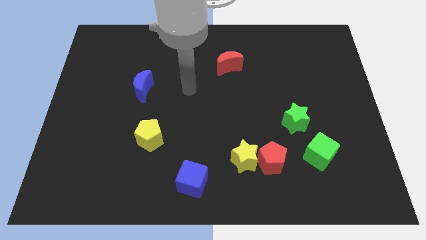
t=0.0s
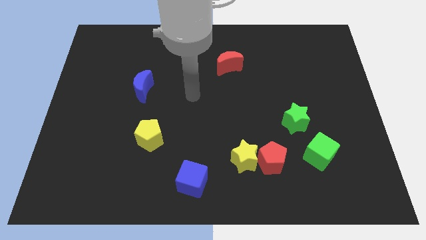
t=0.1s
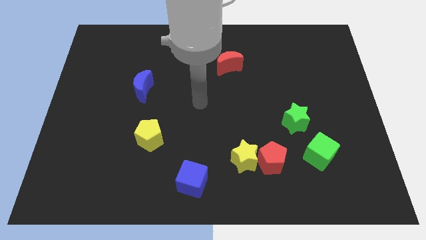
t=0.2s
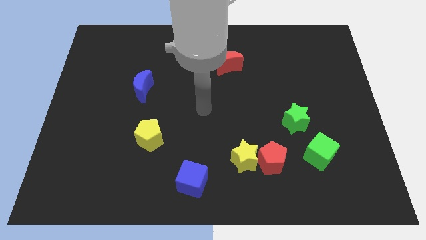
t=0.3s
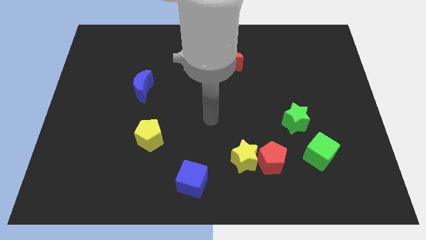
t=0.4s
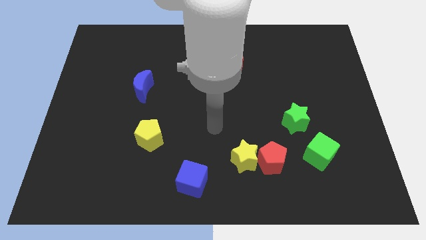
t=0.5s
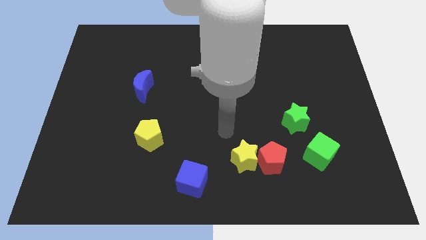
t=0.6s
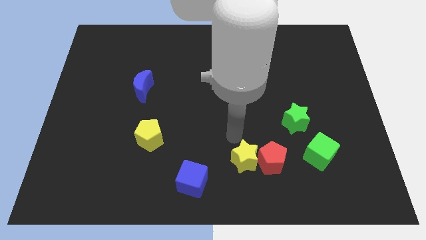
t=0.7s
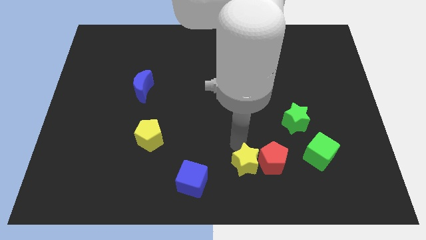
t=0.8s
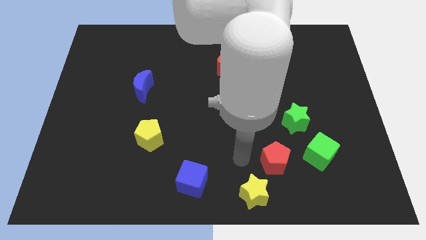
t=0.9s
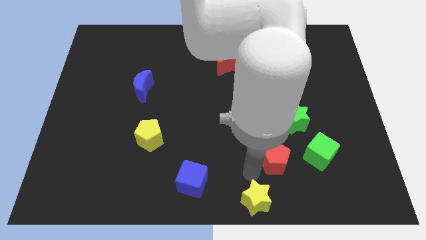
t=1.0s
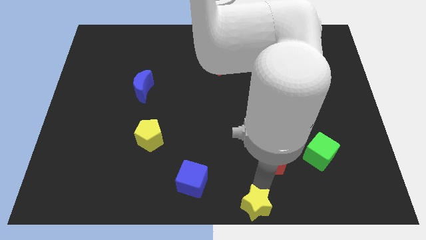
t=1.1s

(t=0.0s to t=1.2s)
separate the red pentagon from the yellow star

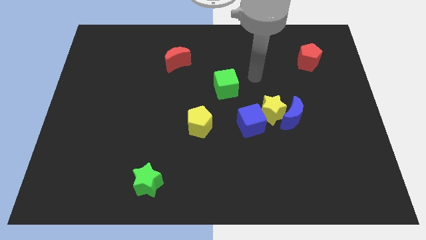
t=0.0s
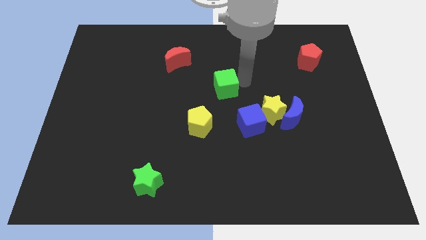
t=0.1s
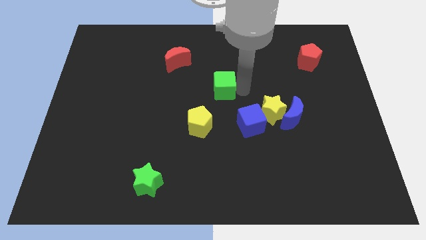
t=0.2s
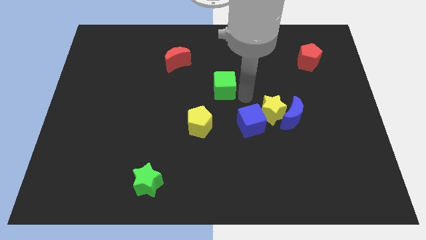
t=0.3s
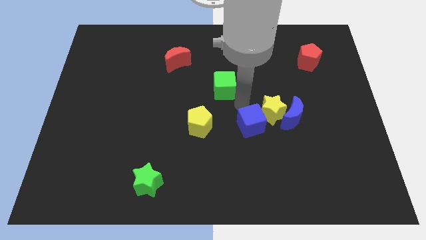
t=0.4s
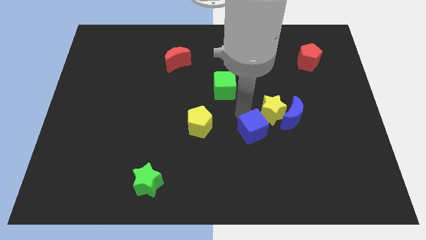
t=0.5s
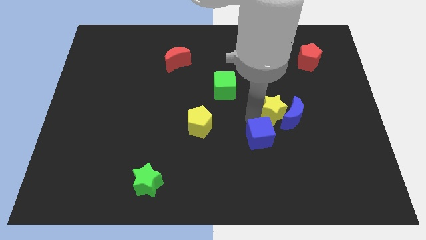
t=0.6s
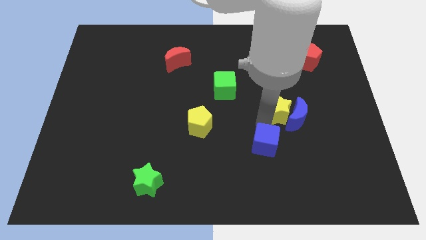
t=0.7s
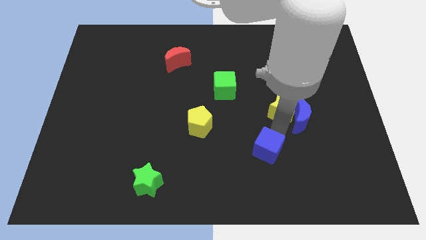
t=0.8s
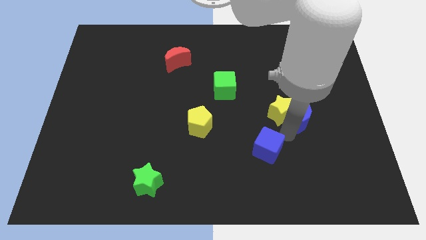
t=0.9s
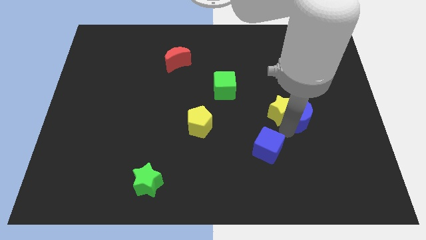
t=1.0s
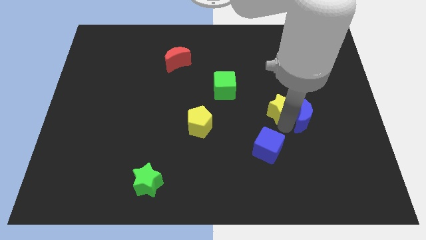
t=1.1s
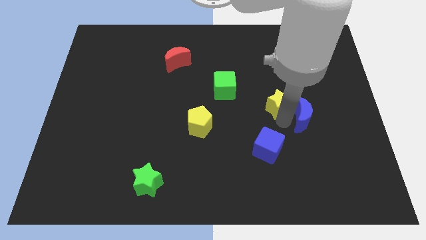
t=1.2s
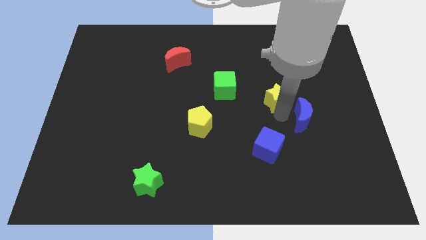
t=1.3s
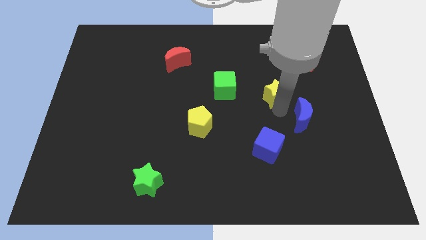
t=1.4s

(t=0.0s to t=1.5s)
separate the yellow star from the blue moon and blue cube

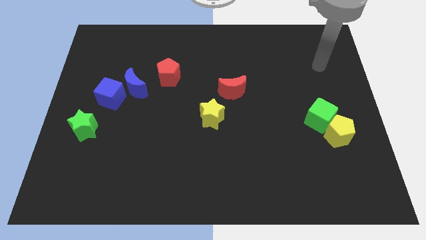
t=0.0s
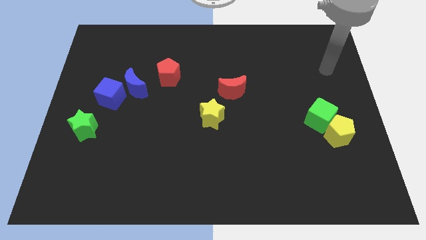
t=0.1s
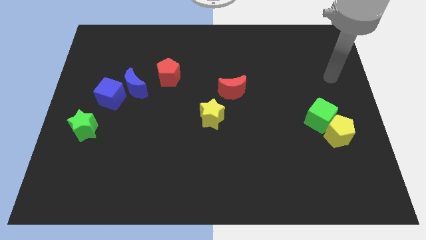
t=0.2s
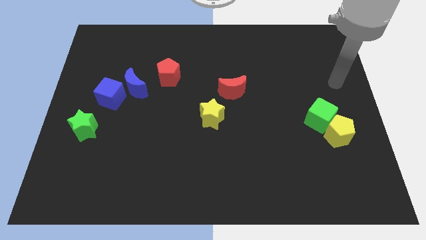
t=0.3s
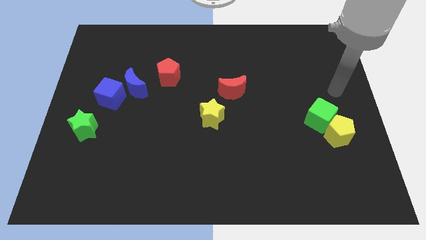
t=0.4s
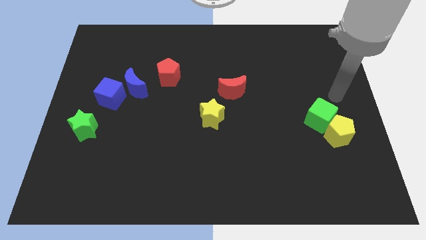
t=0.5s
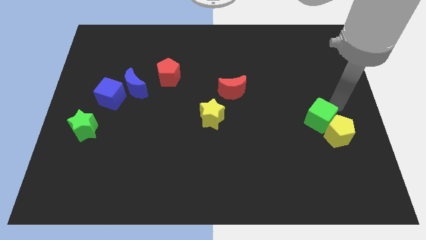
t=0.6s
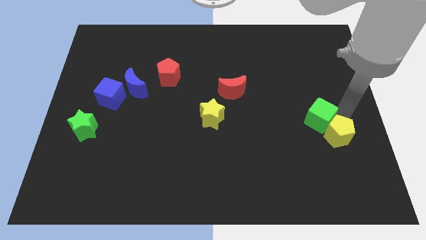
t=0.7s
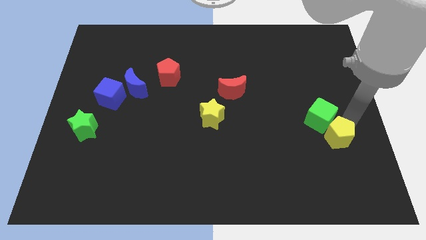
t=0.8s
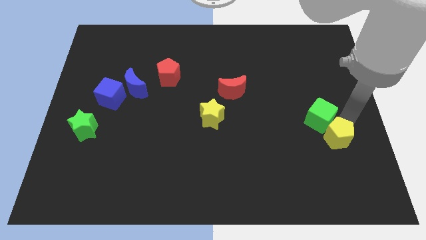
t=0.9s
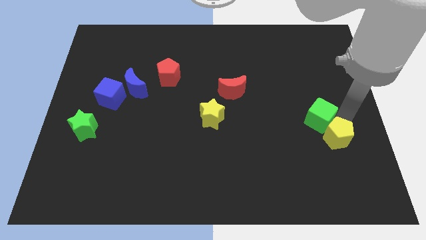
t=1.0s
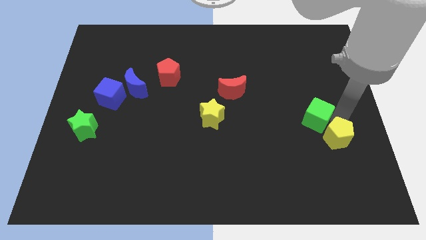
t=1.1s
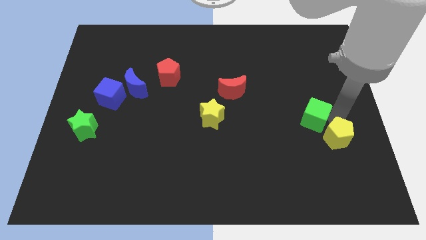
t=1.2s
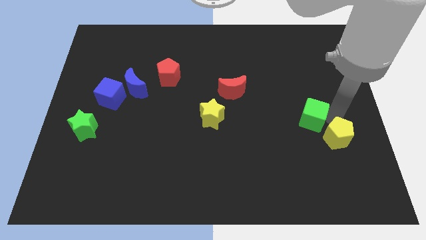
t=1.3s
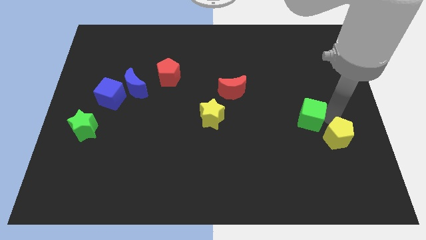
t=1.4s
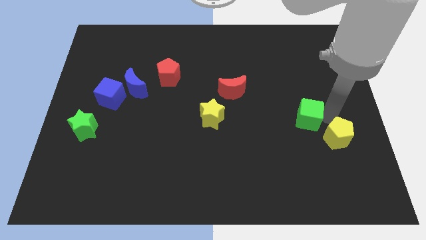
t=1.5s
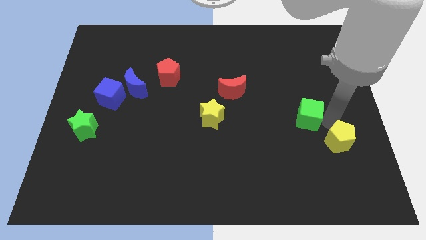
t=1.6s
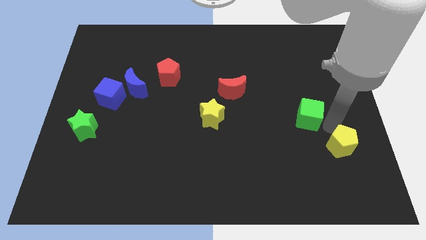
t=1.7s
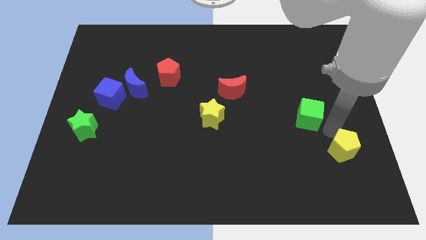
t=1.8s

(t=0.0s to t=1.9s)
pull the green cube apart from the yellow pentagon

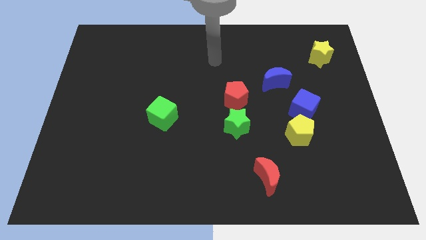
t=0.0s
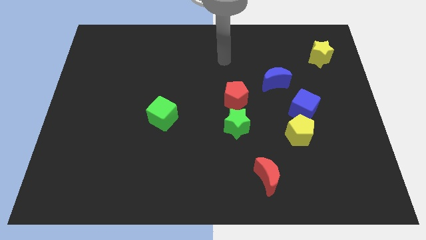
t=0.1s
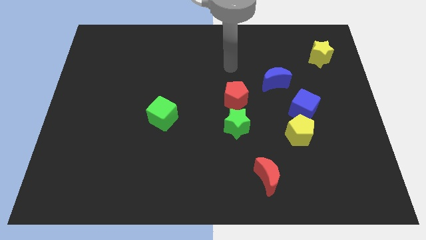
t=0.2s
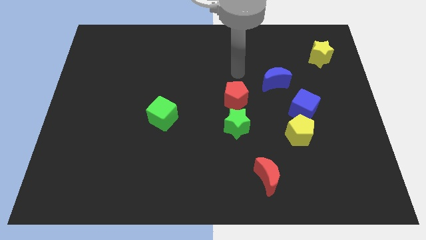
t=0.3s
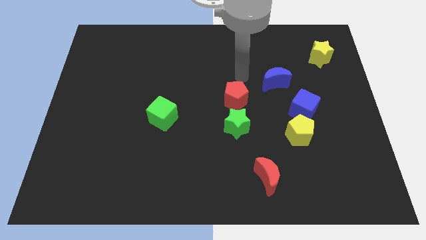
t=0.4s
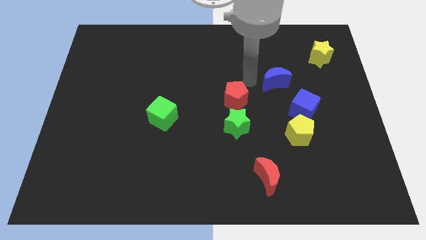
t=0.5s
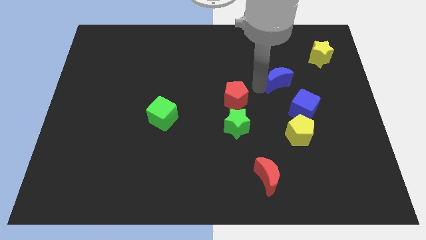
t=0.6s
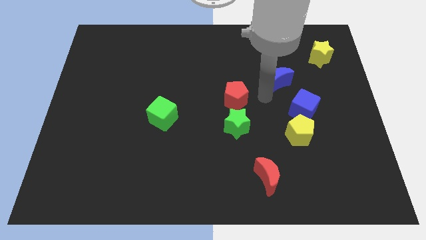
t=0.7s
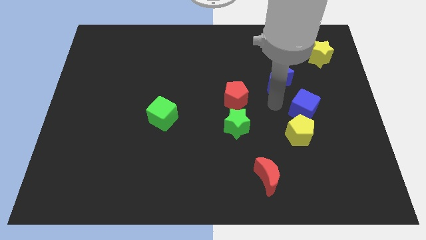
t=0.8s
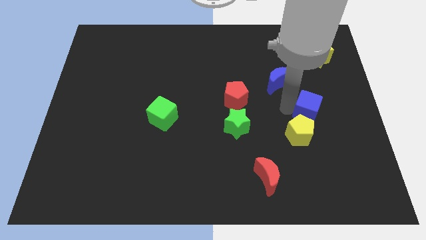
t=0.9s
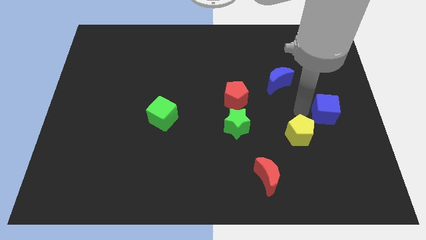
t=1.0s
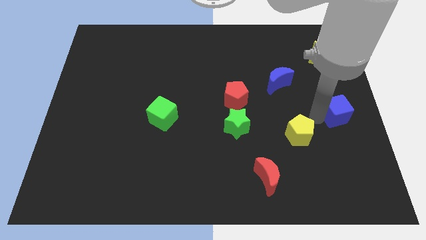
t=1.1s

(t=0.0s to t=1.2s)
separate the yellow pentagon from the blue cube

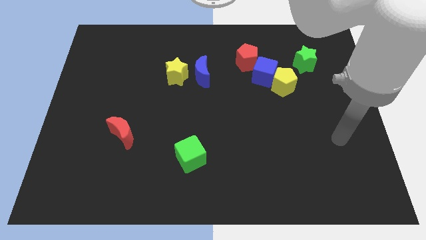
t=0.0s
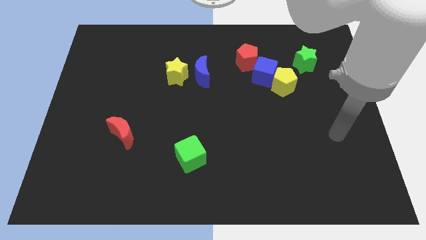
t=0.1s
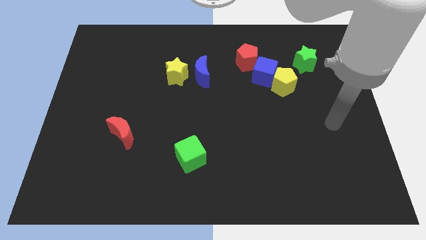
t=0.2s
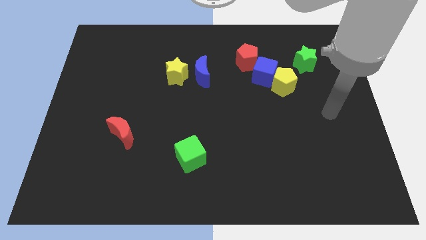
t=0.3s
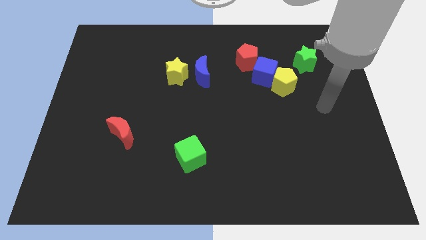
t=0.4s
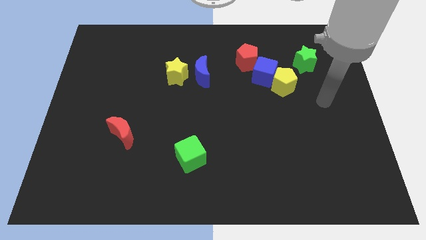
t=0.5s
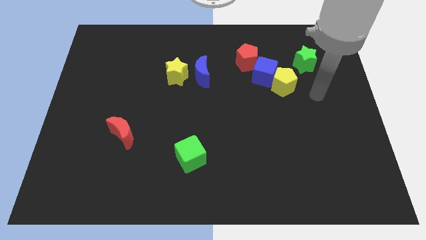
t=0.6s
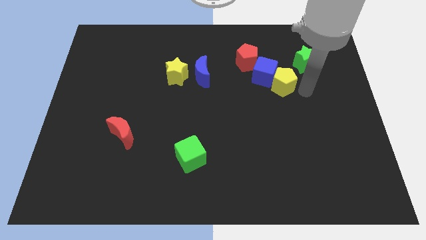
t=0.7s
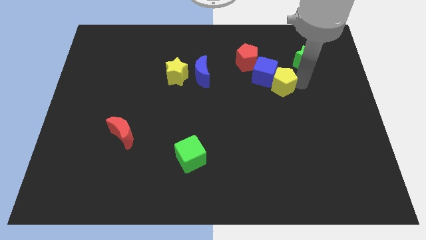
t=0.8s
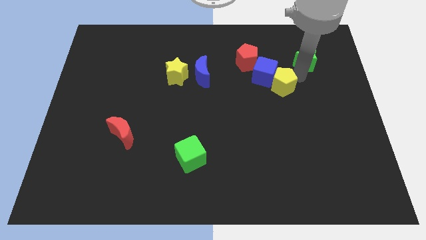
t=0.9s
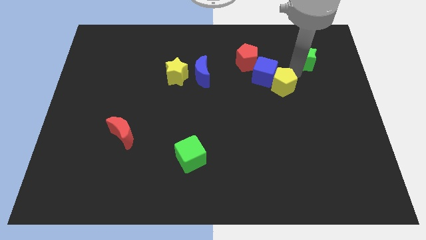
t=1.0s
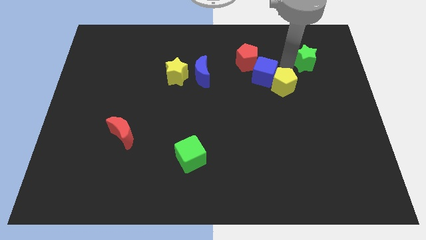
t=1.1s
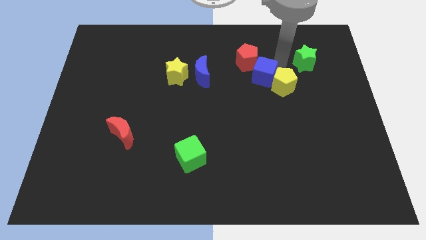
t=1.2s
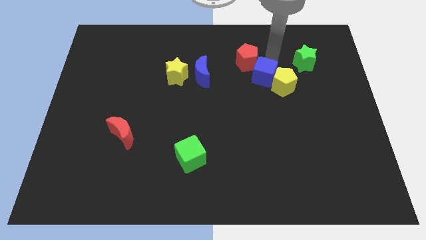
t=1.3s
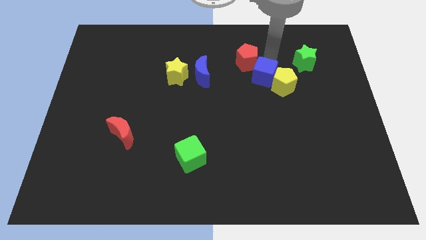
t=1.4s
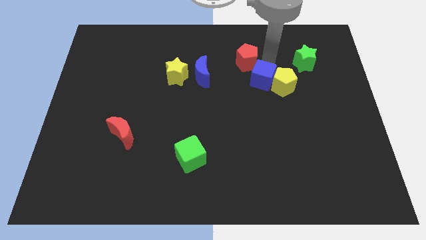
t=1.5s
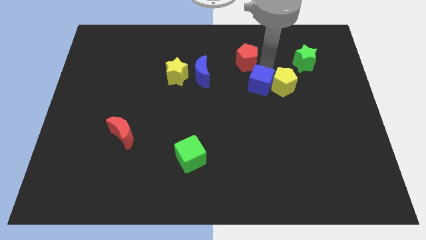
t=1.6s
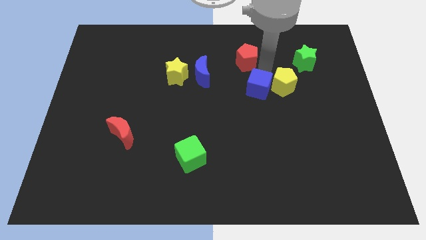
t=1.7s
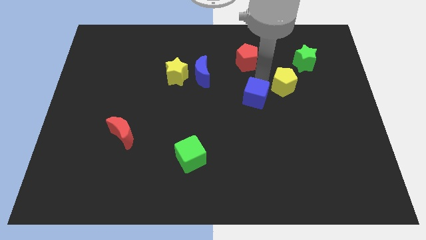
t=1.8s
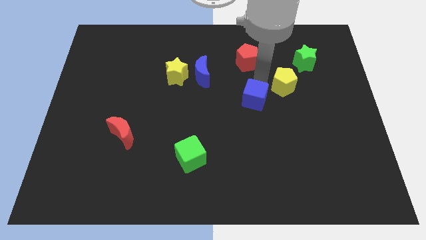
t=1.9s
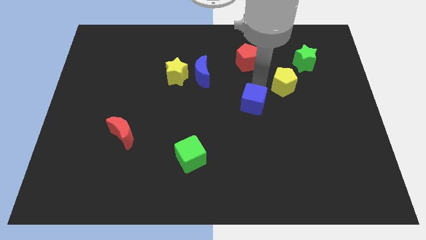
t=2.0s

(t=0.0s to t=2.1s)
pull the blue cube apart from the yellow pentagon and red pentagon

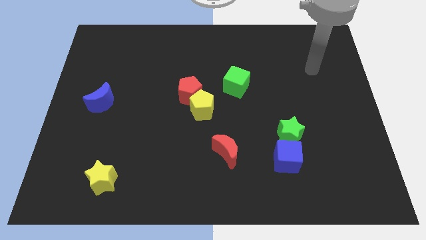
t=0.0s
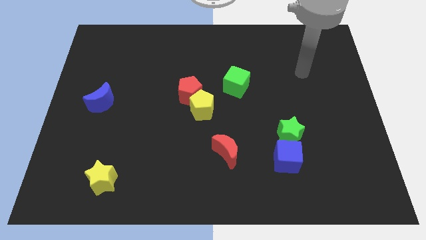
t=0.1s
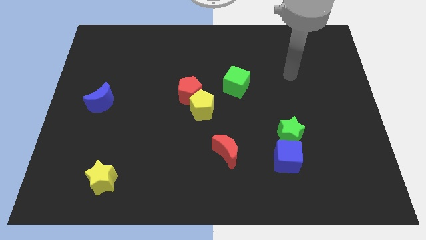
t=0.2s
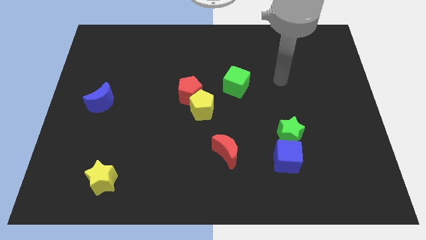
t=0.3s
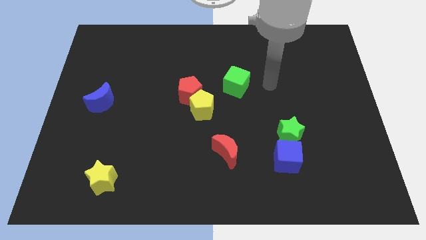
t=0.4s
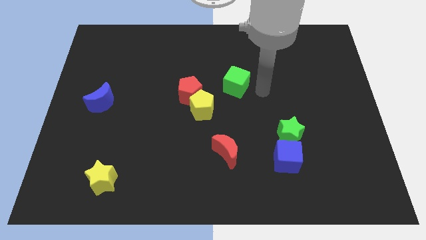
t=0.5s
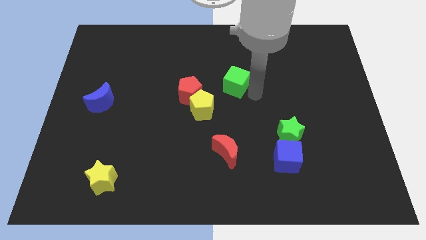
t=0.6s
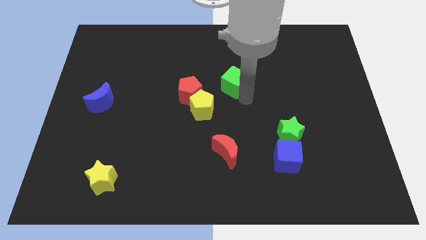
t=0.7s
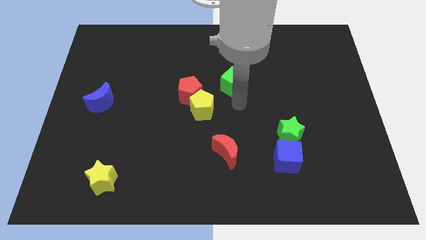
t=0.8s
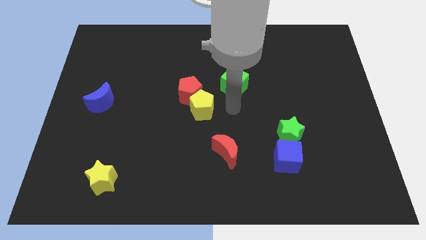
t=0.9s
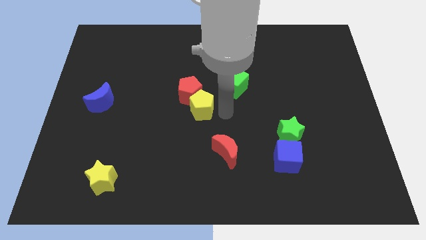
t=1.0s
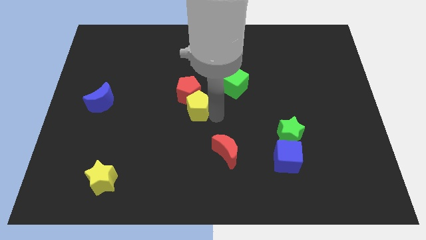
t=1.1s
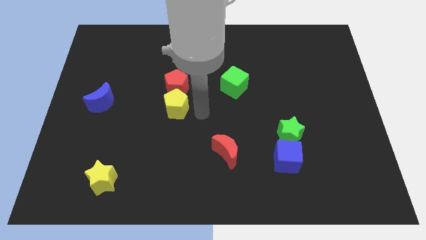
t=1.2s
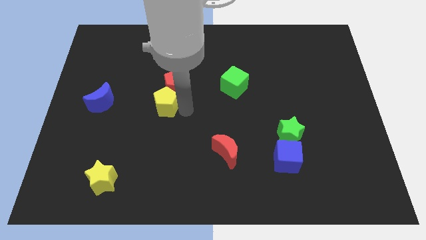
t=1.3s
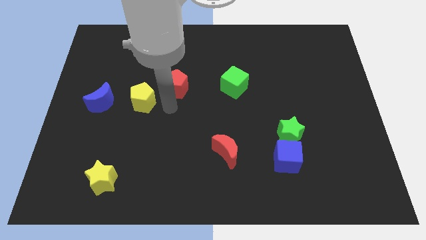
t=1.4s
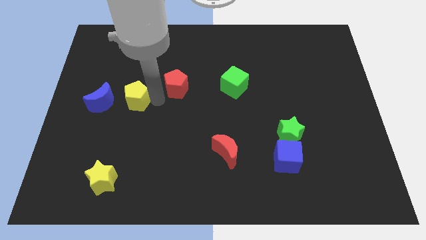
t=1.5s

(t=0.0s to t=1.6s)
pull the red pentagon apart from the yellow pentagon
